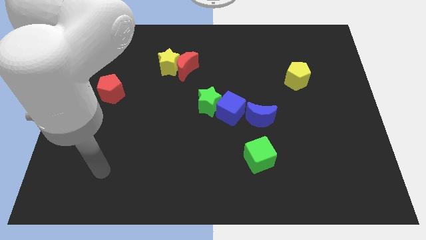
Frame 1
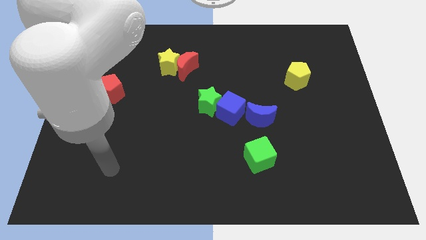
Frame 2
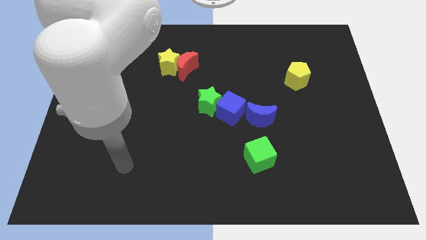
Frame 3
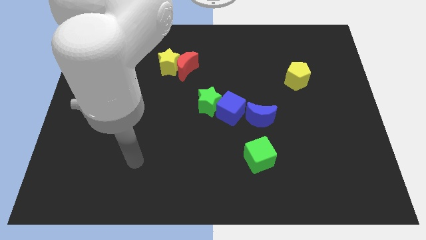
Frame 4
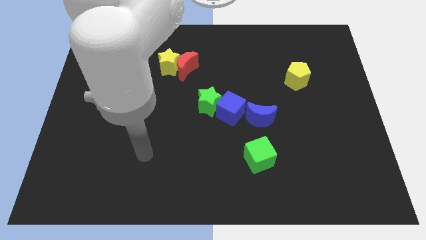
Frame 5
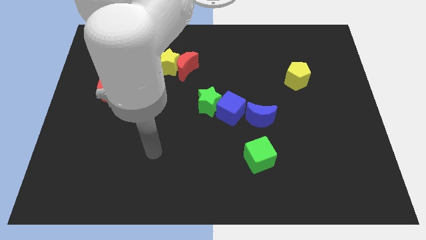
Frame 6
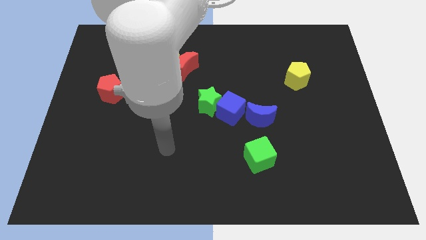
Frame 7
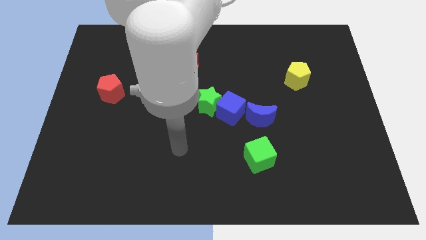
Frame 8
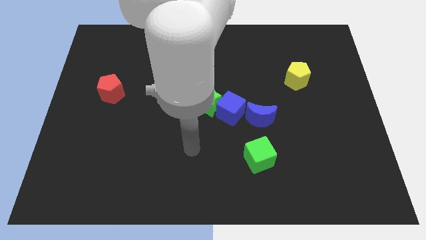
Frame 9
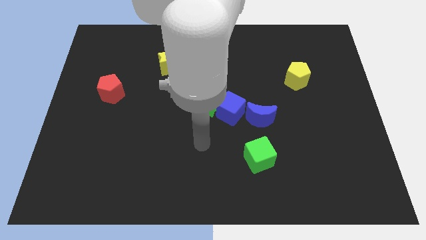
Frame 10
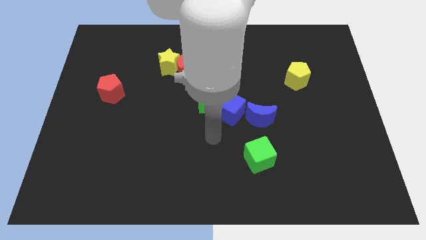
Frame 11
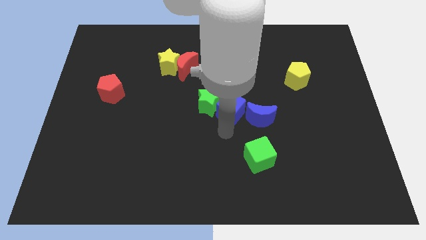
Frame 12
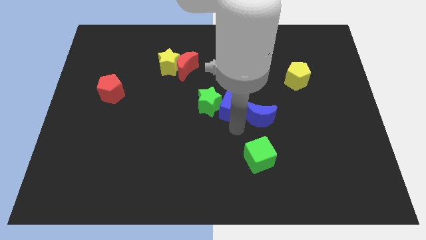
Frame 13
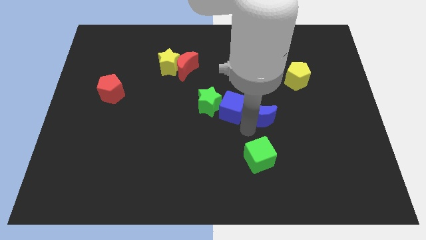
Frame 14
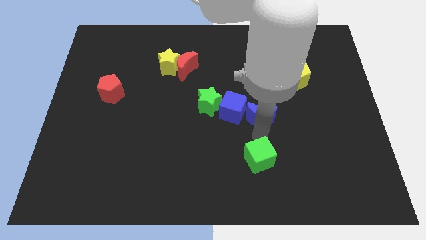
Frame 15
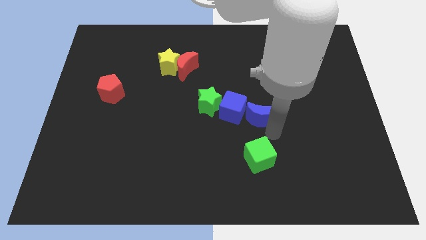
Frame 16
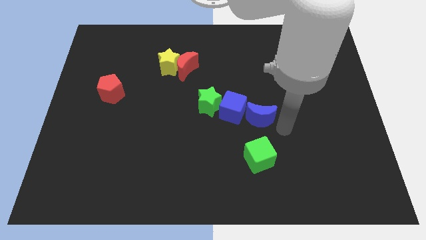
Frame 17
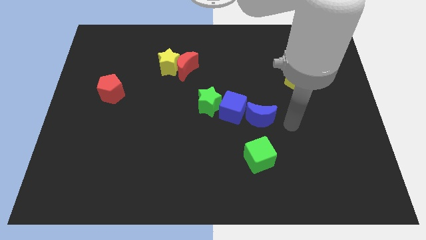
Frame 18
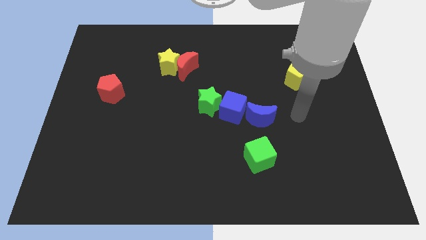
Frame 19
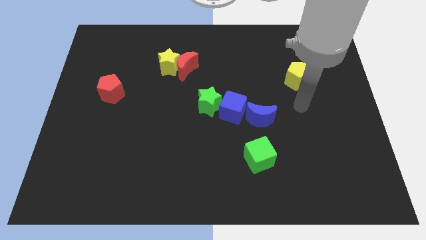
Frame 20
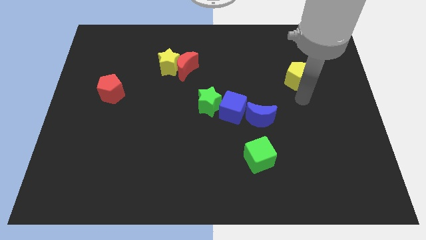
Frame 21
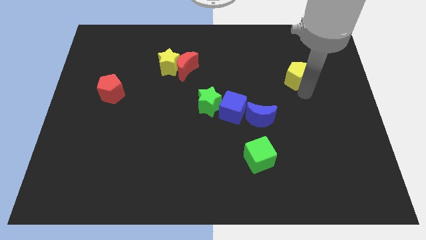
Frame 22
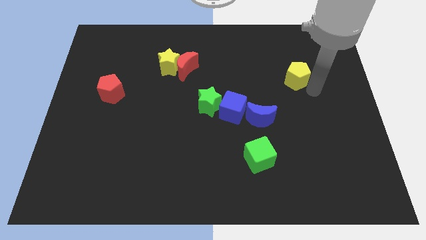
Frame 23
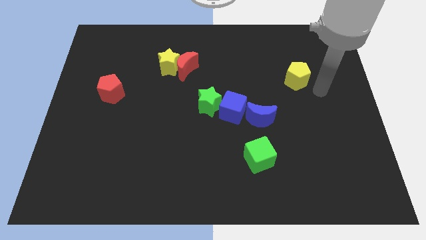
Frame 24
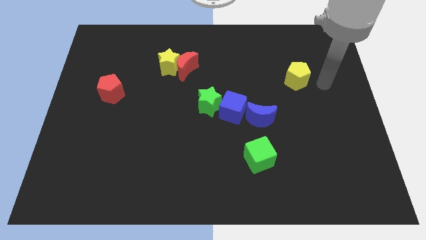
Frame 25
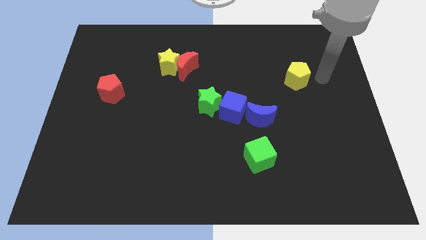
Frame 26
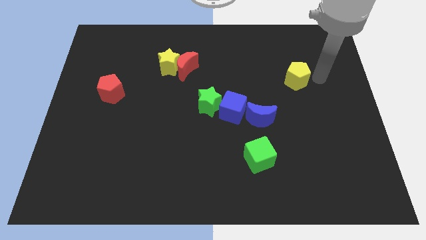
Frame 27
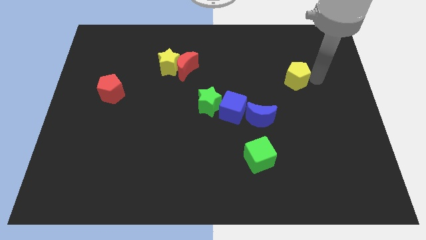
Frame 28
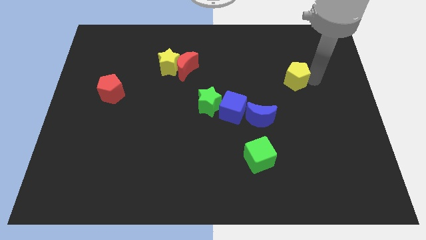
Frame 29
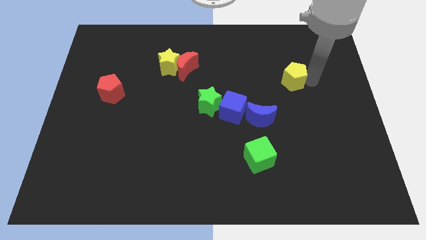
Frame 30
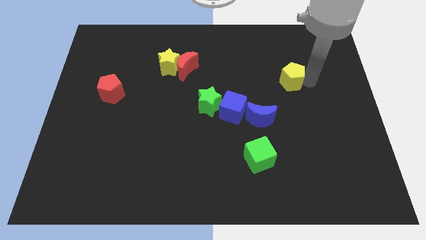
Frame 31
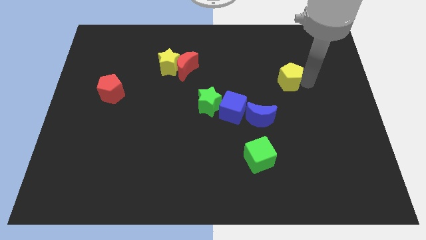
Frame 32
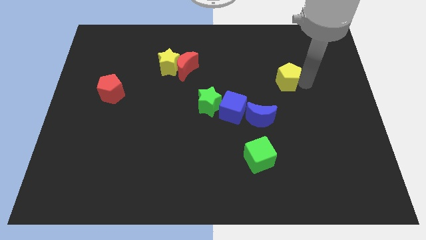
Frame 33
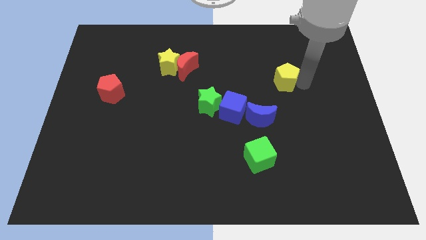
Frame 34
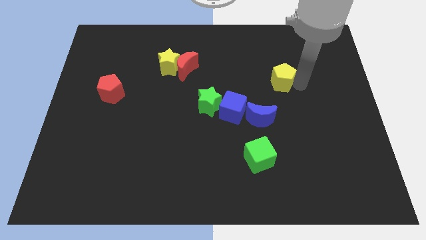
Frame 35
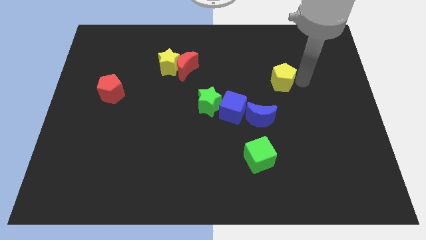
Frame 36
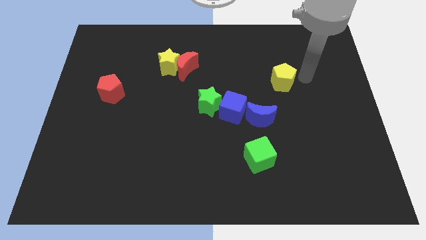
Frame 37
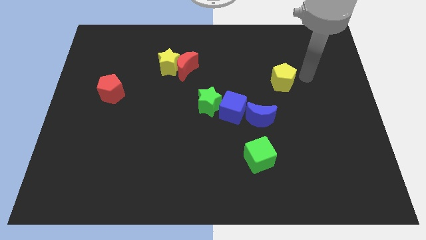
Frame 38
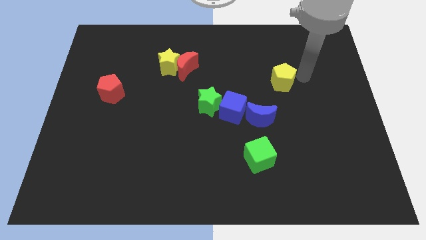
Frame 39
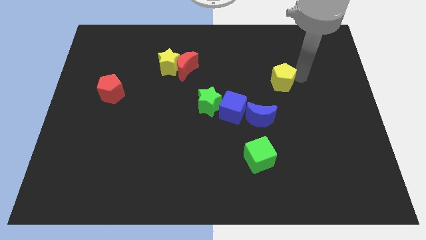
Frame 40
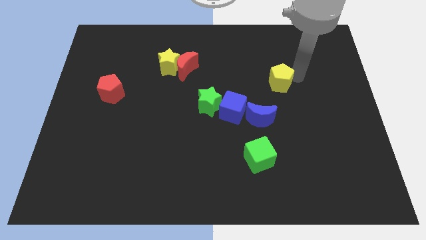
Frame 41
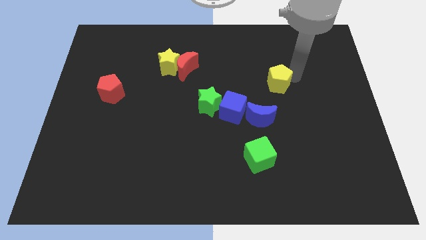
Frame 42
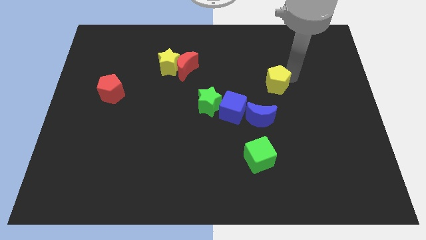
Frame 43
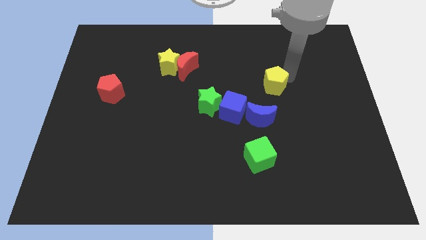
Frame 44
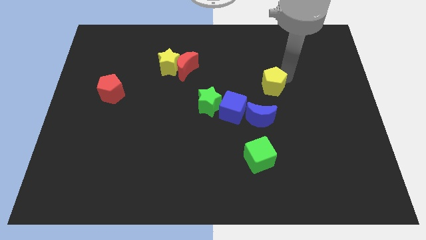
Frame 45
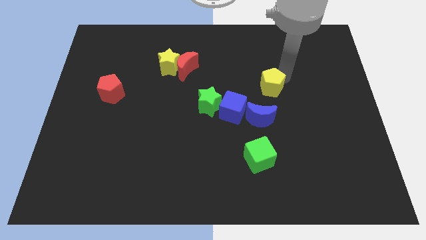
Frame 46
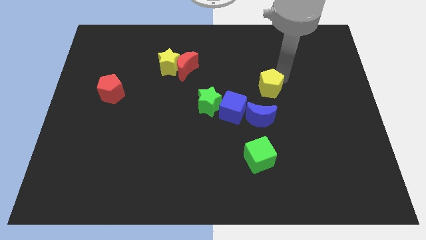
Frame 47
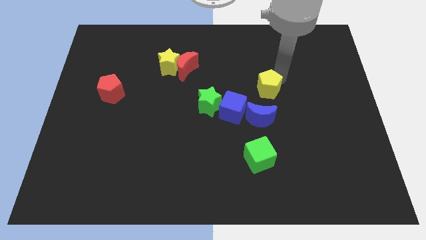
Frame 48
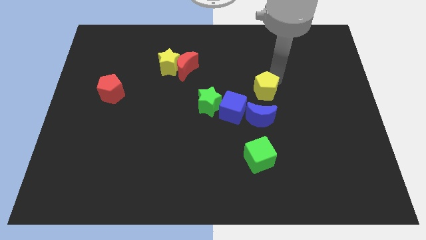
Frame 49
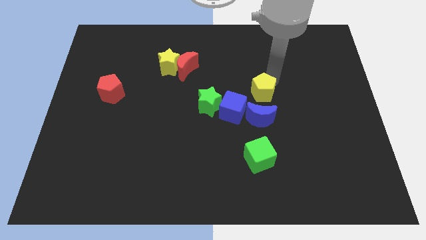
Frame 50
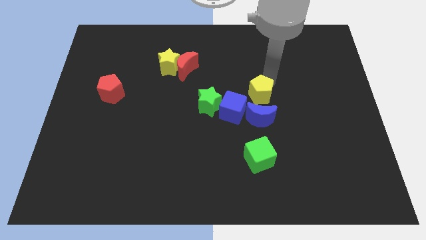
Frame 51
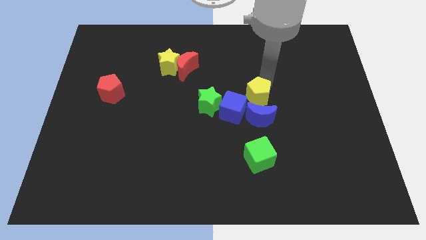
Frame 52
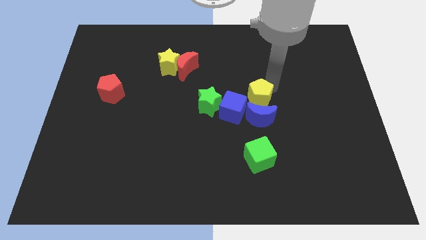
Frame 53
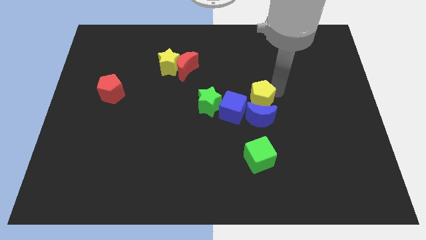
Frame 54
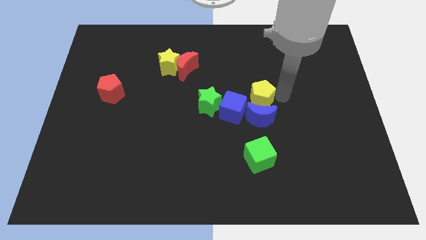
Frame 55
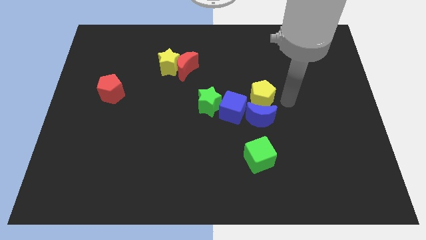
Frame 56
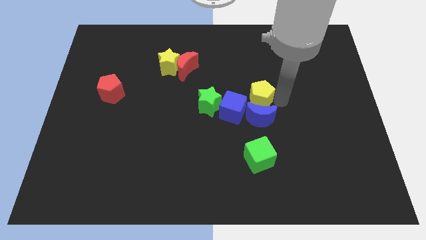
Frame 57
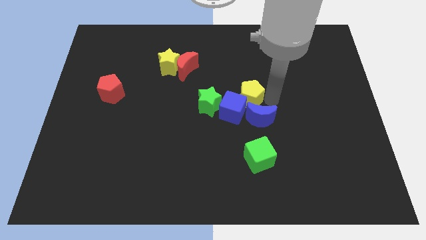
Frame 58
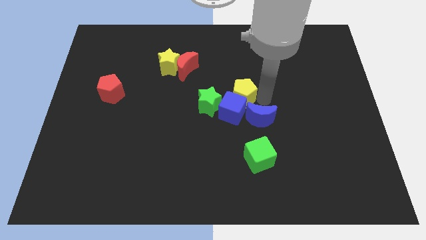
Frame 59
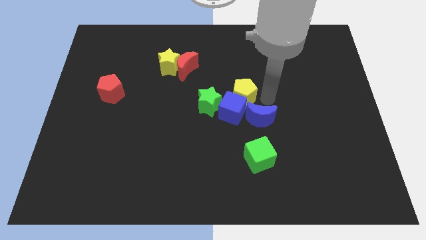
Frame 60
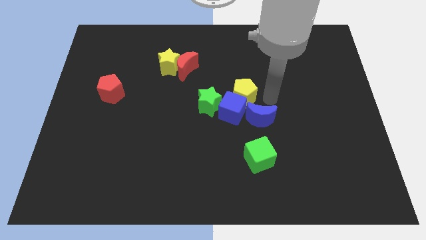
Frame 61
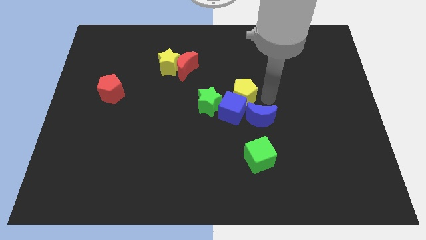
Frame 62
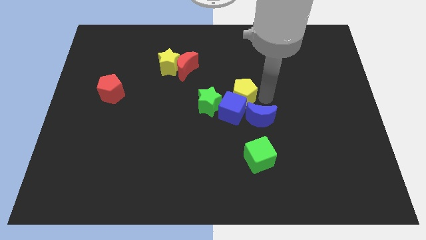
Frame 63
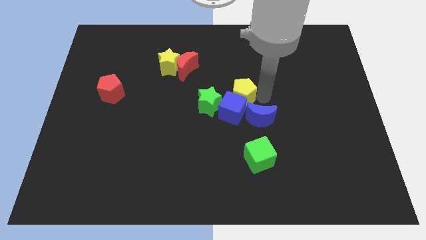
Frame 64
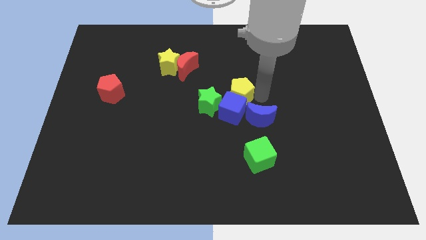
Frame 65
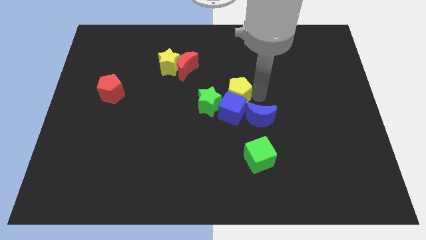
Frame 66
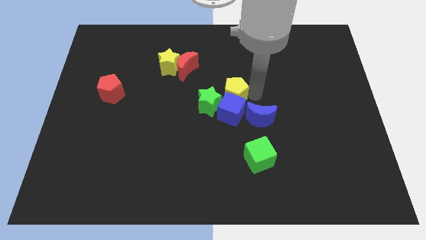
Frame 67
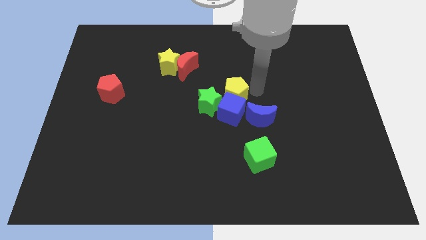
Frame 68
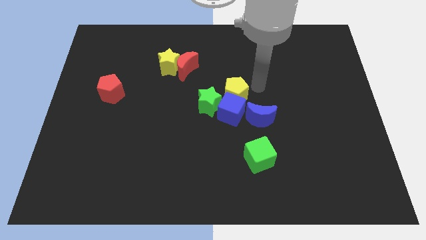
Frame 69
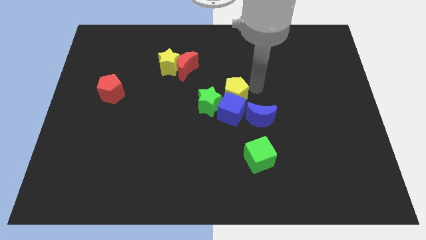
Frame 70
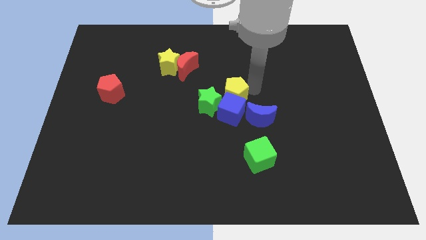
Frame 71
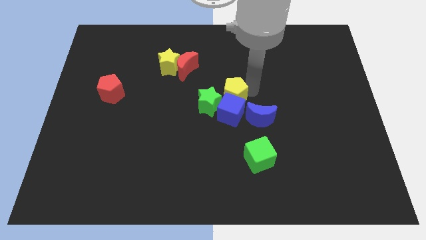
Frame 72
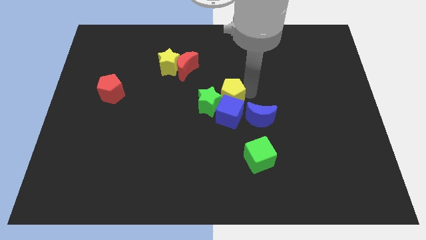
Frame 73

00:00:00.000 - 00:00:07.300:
slide the yellow pentagon close to the green star
